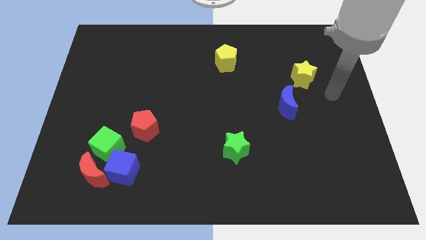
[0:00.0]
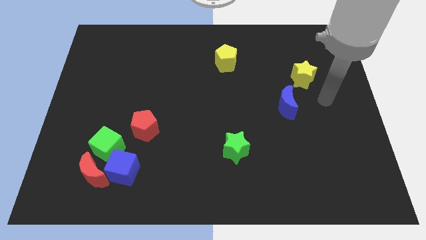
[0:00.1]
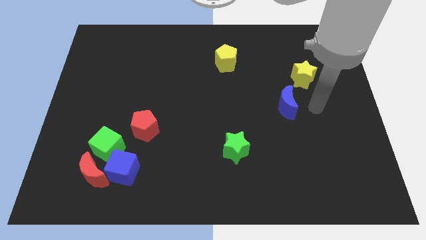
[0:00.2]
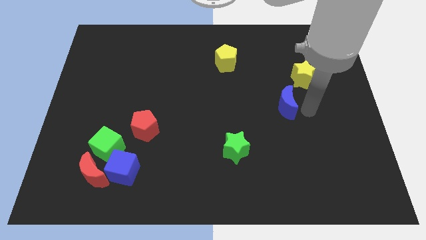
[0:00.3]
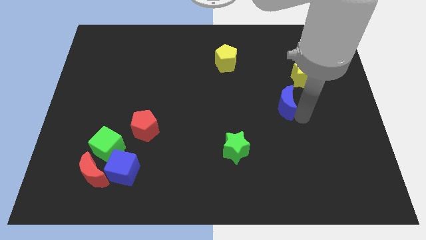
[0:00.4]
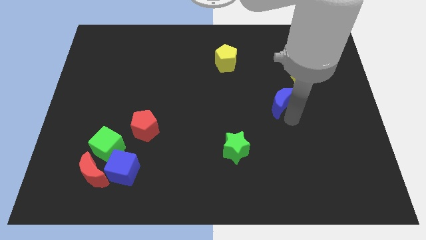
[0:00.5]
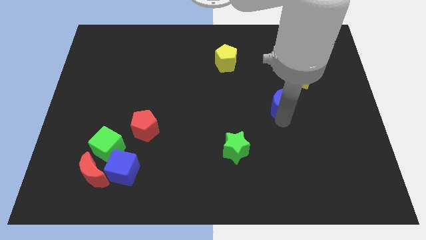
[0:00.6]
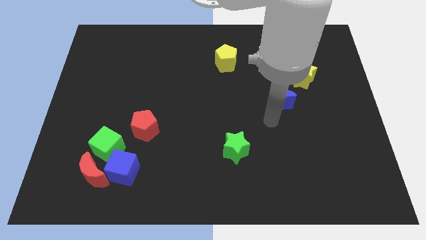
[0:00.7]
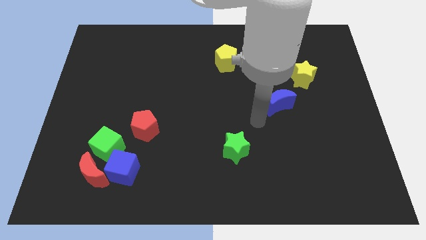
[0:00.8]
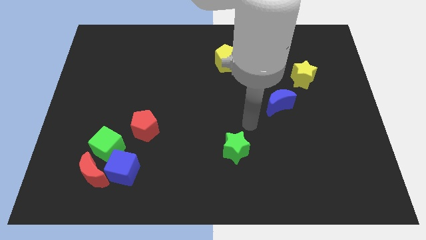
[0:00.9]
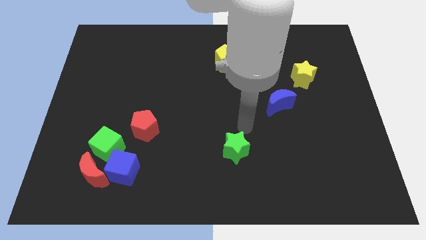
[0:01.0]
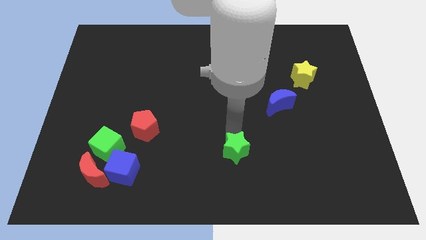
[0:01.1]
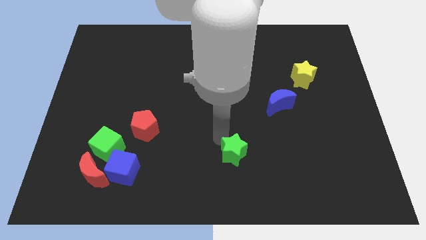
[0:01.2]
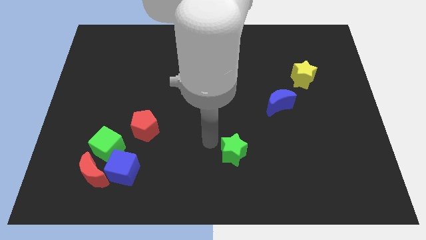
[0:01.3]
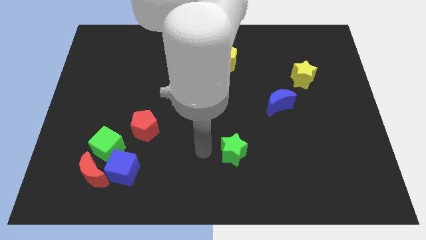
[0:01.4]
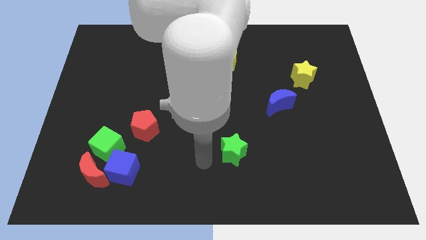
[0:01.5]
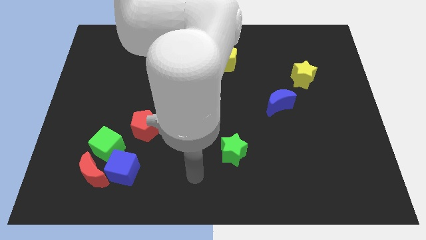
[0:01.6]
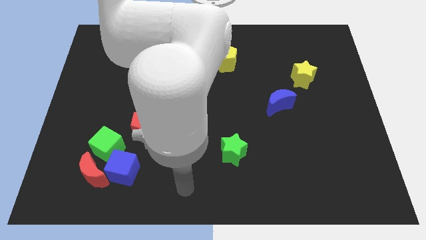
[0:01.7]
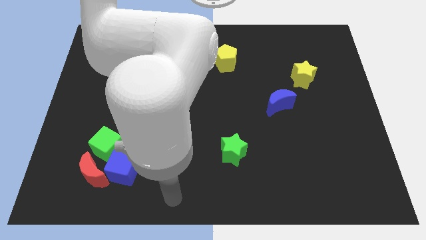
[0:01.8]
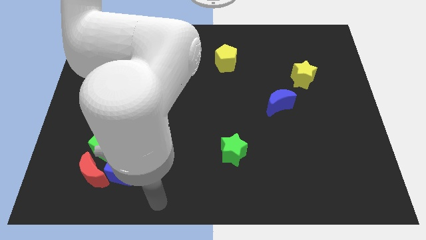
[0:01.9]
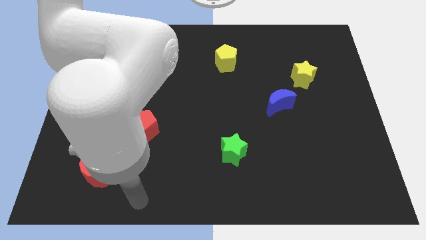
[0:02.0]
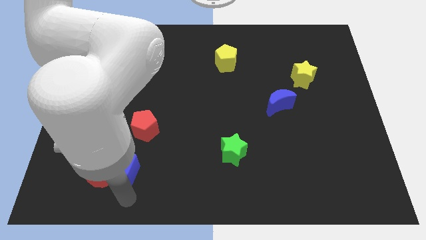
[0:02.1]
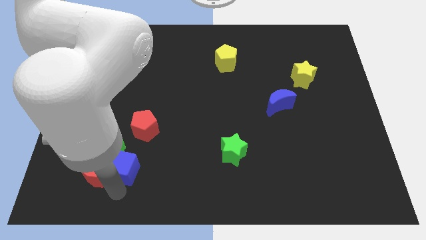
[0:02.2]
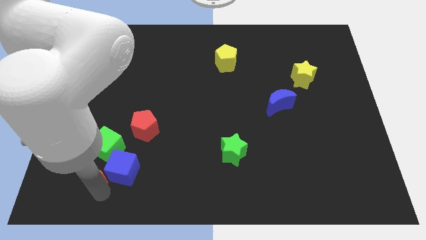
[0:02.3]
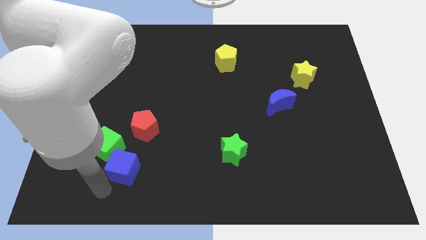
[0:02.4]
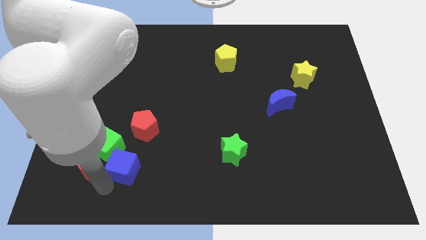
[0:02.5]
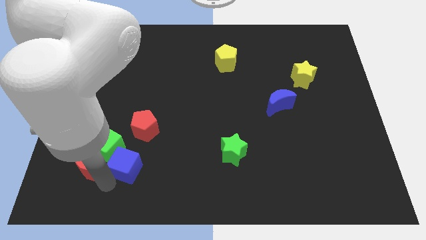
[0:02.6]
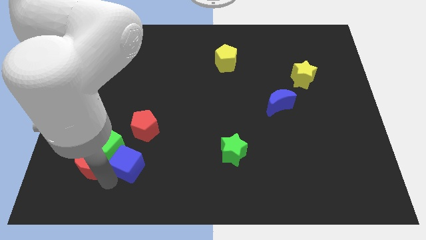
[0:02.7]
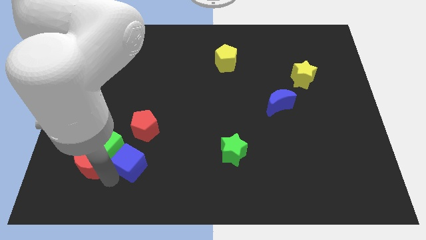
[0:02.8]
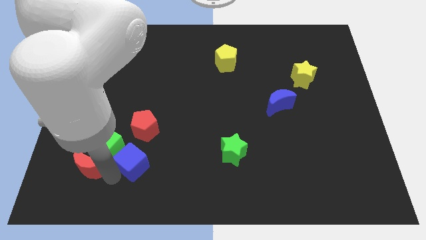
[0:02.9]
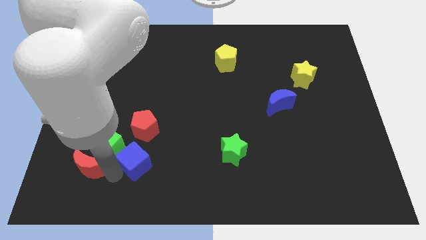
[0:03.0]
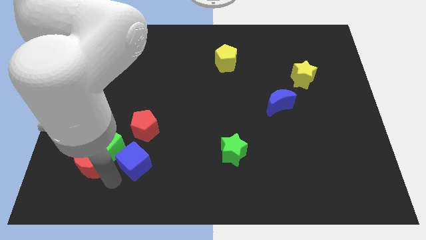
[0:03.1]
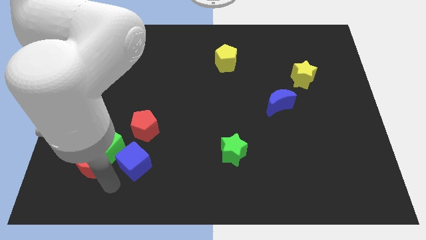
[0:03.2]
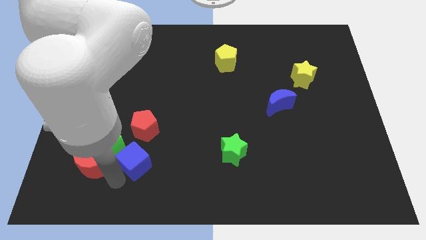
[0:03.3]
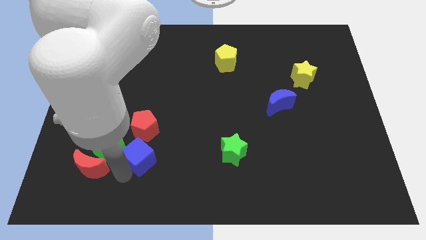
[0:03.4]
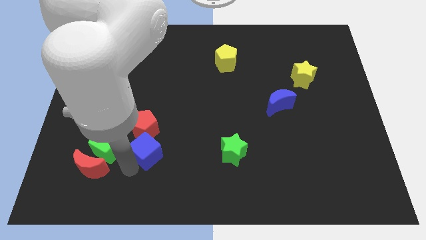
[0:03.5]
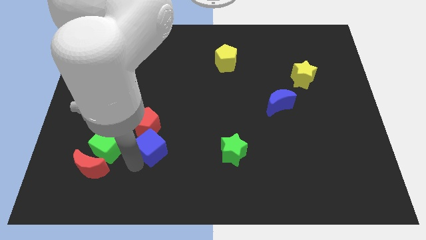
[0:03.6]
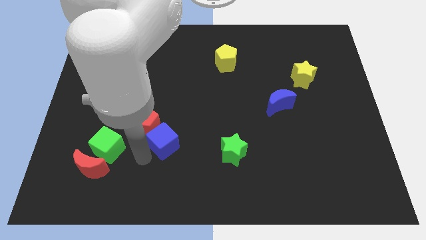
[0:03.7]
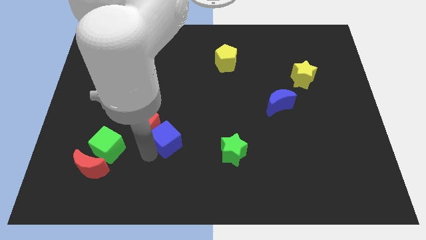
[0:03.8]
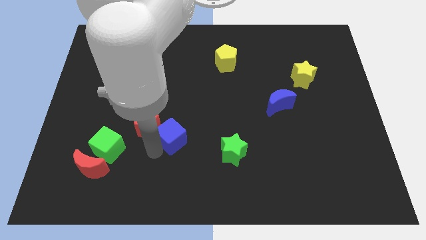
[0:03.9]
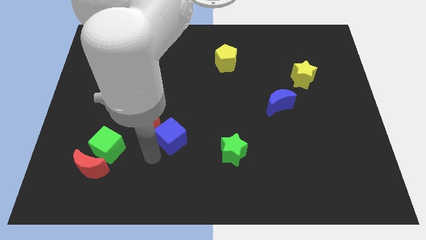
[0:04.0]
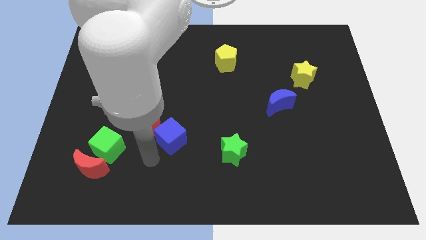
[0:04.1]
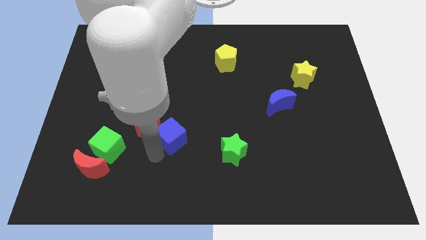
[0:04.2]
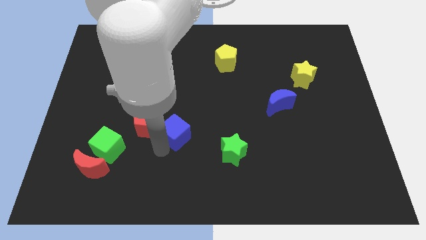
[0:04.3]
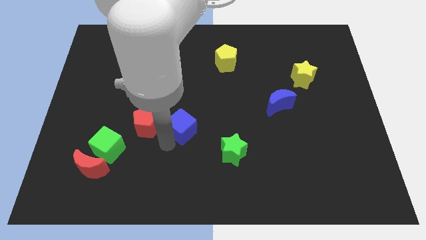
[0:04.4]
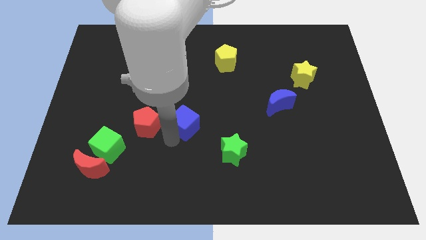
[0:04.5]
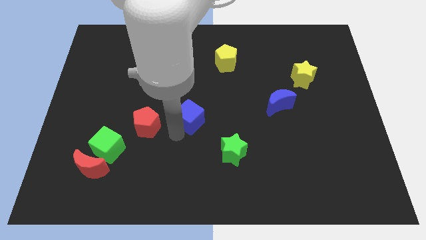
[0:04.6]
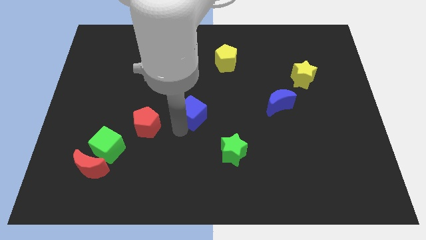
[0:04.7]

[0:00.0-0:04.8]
push the blue cube up and then to the right

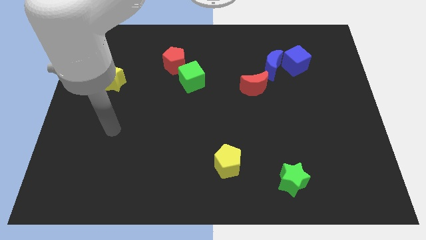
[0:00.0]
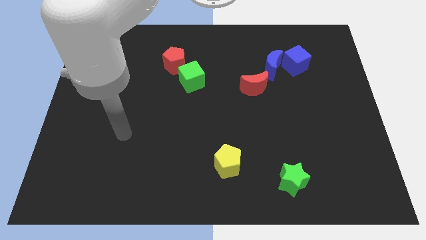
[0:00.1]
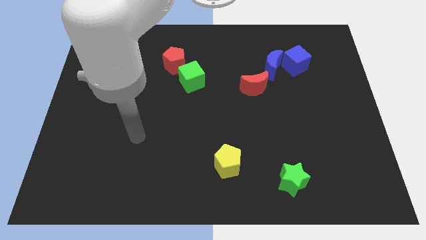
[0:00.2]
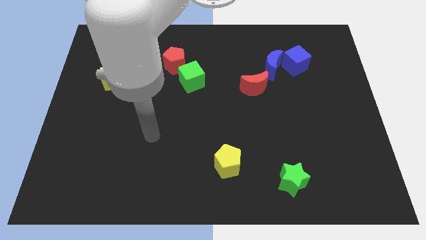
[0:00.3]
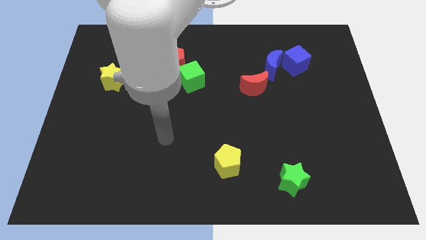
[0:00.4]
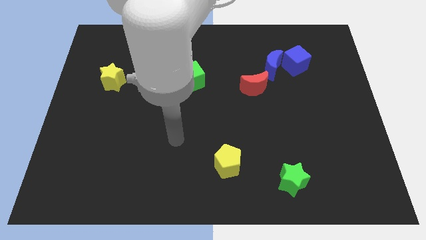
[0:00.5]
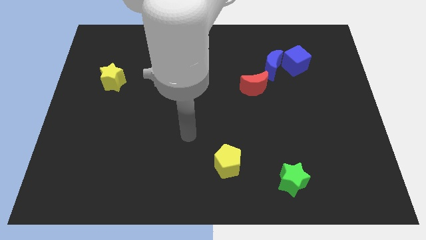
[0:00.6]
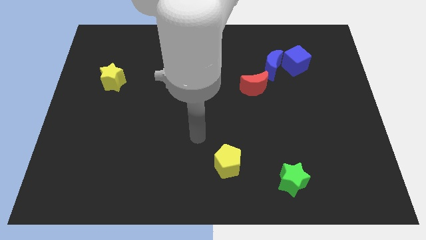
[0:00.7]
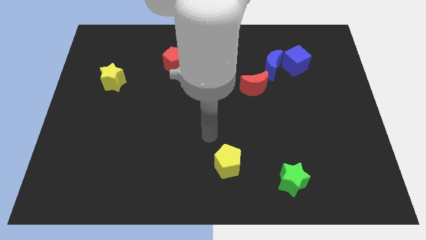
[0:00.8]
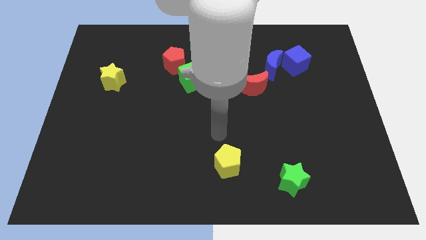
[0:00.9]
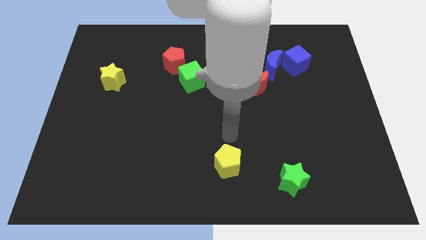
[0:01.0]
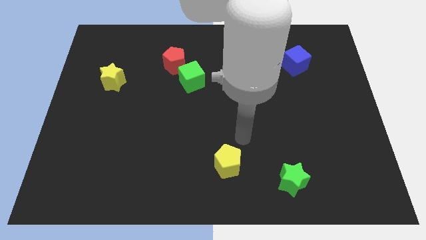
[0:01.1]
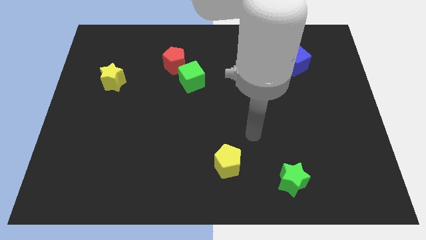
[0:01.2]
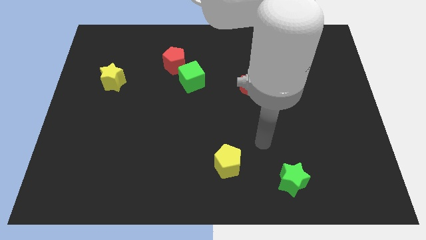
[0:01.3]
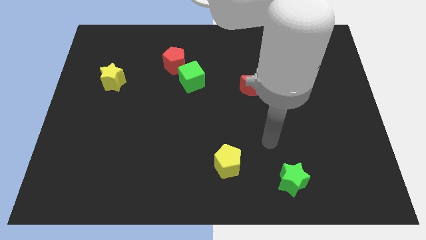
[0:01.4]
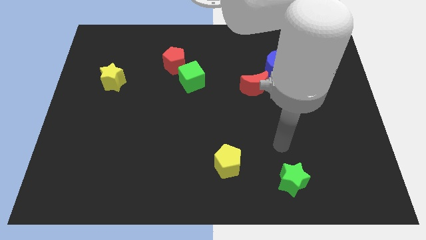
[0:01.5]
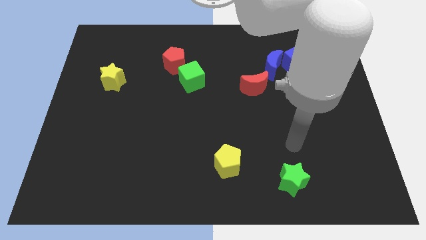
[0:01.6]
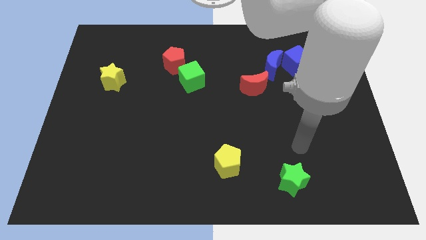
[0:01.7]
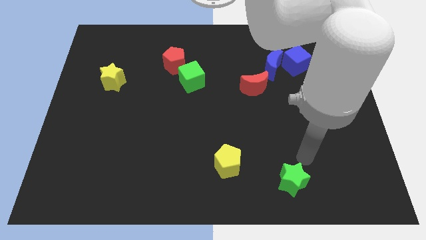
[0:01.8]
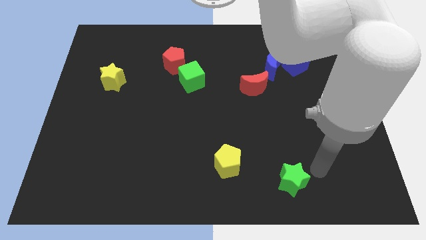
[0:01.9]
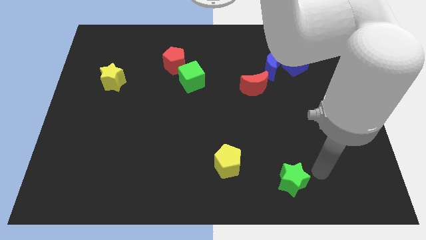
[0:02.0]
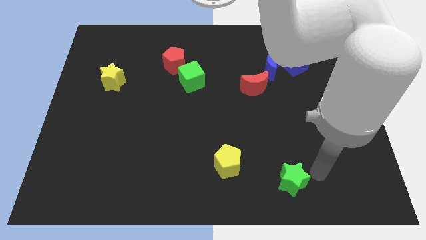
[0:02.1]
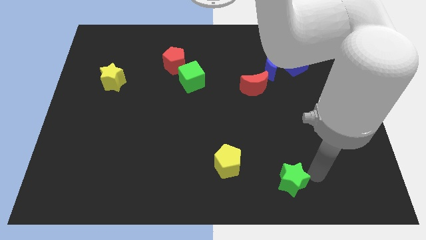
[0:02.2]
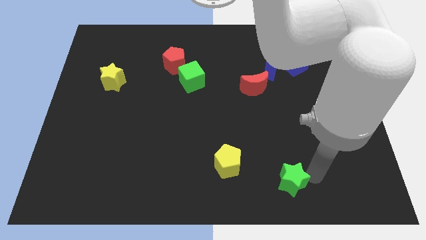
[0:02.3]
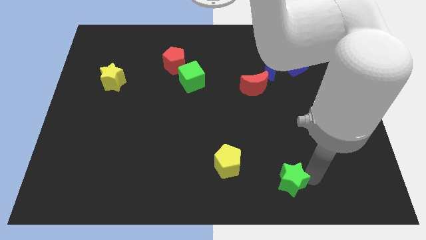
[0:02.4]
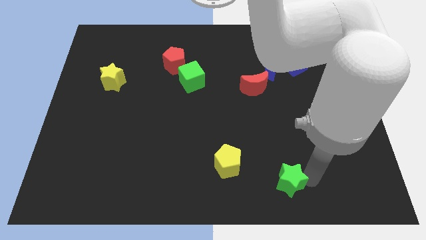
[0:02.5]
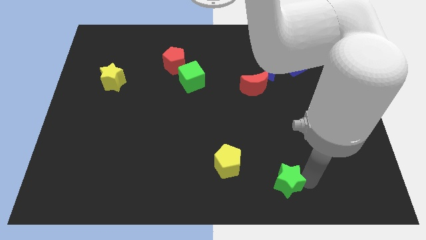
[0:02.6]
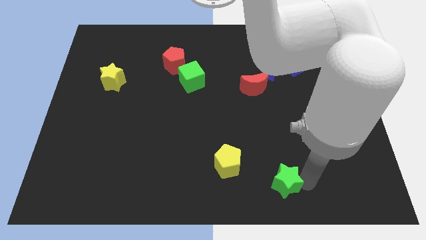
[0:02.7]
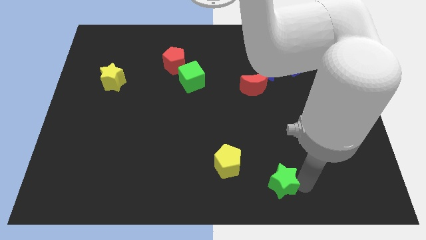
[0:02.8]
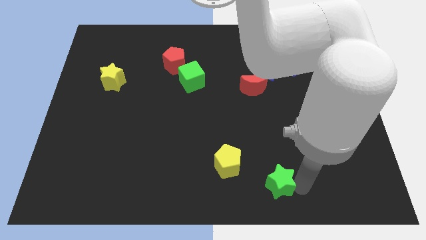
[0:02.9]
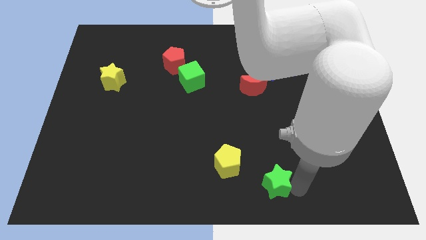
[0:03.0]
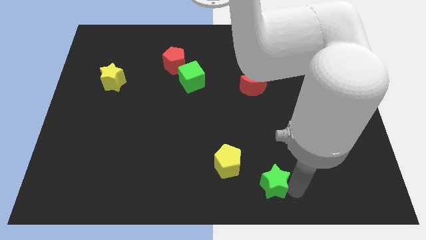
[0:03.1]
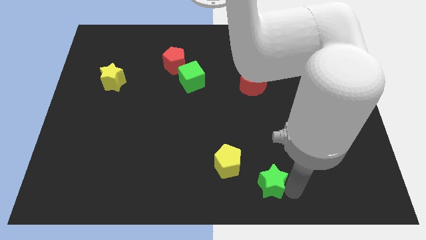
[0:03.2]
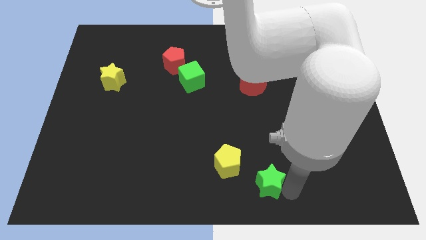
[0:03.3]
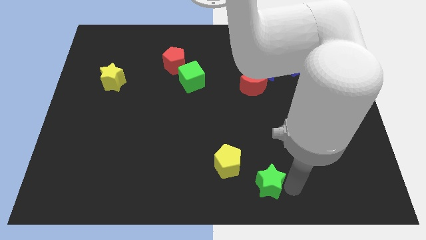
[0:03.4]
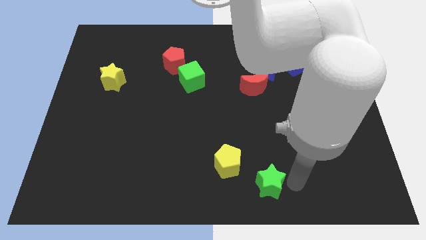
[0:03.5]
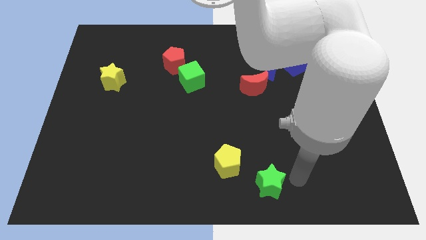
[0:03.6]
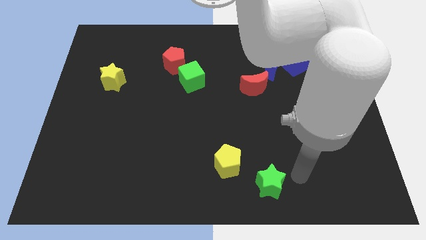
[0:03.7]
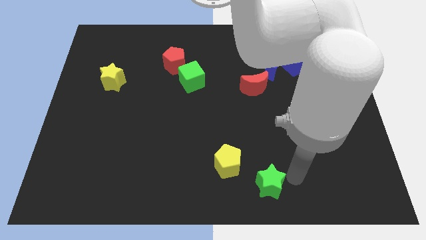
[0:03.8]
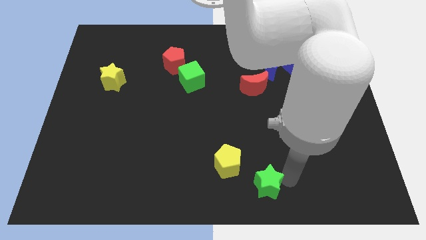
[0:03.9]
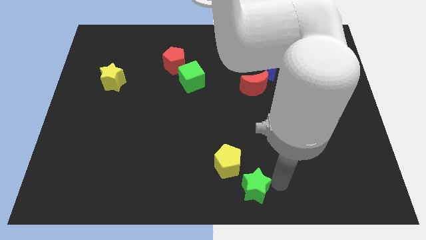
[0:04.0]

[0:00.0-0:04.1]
slide the green star left a little
